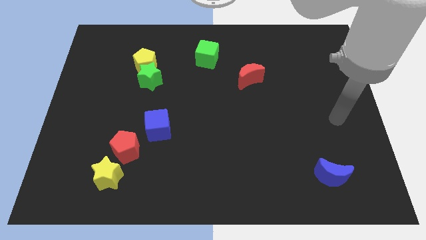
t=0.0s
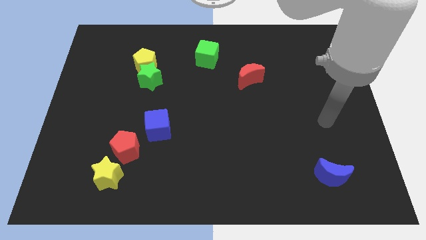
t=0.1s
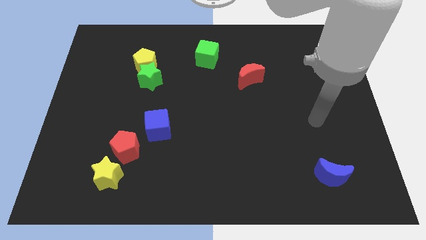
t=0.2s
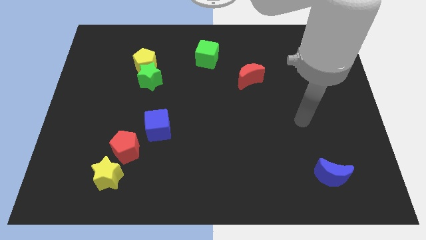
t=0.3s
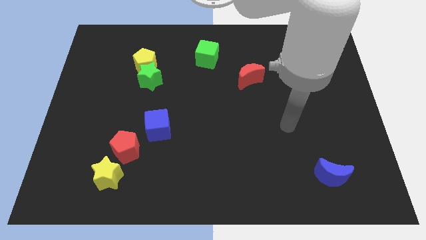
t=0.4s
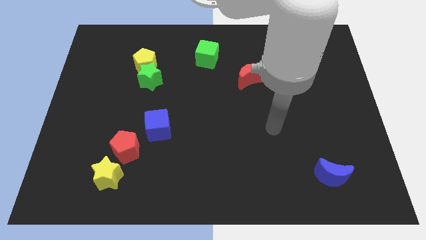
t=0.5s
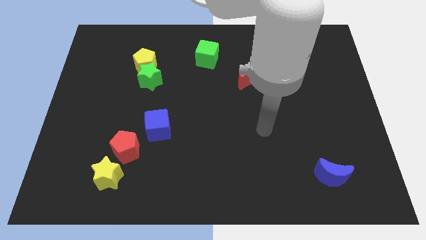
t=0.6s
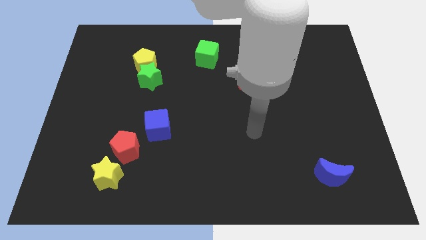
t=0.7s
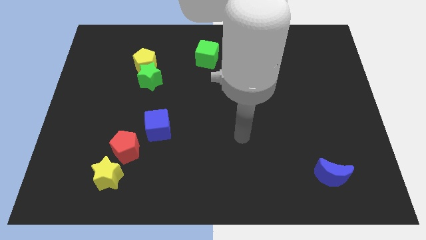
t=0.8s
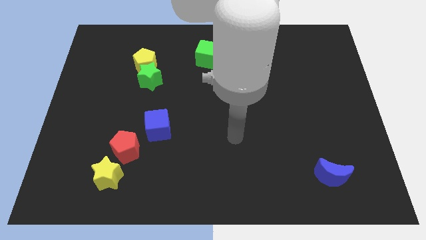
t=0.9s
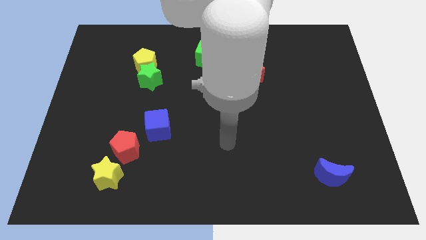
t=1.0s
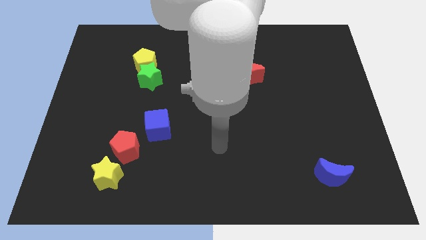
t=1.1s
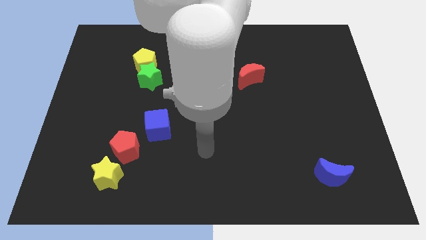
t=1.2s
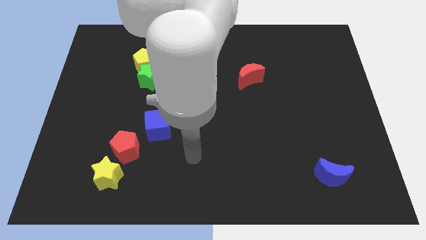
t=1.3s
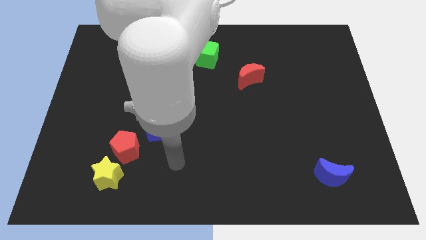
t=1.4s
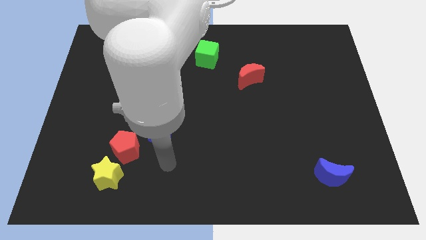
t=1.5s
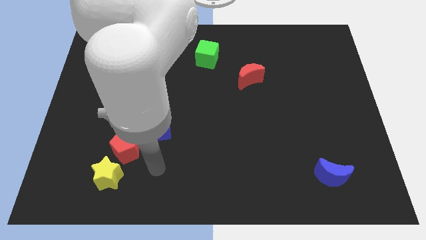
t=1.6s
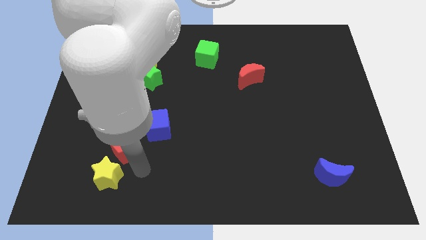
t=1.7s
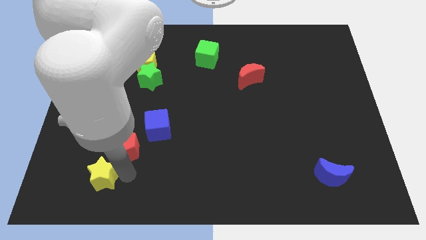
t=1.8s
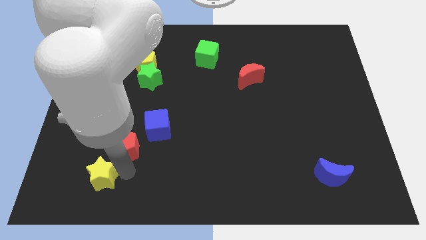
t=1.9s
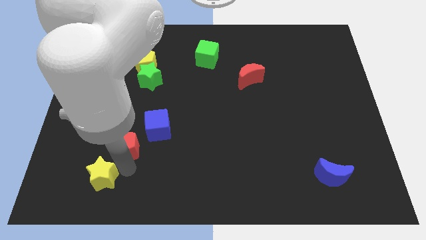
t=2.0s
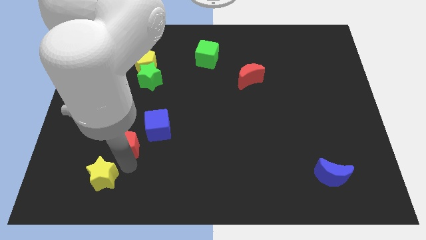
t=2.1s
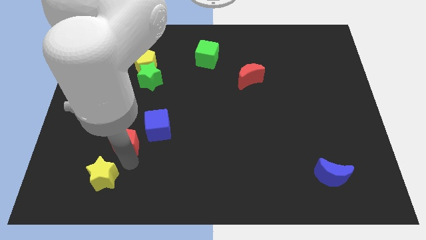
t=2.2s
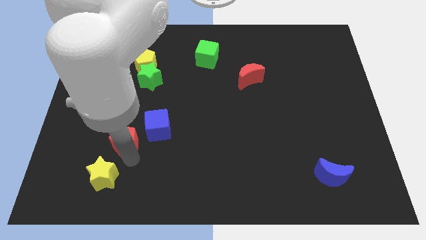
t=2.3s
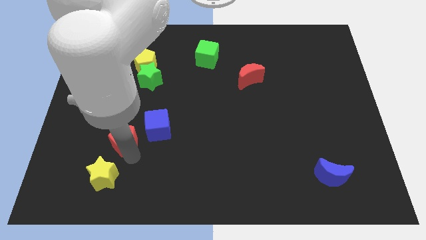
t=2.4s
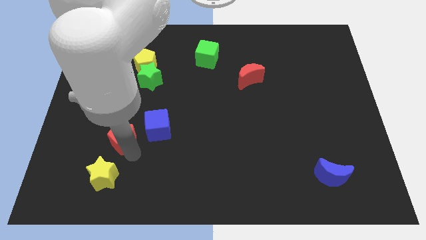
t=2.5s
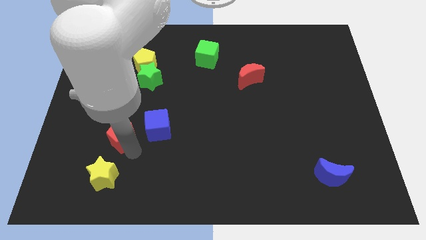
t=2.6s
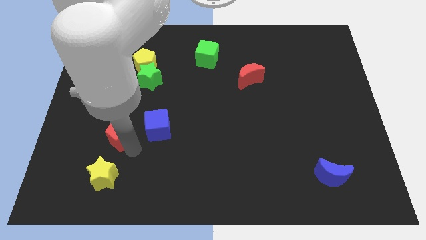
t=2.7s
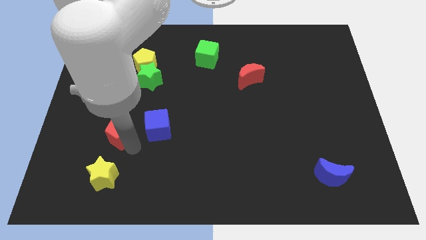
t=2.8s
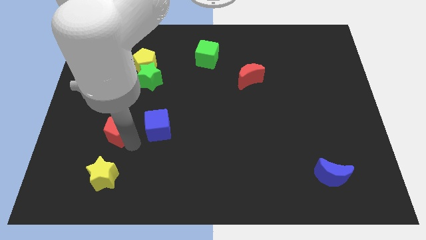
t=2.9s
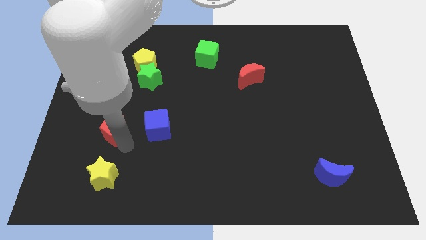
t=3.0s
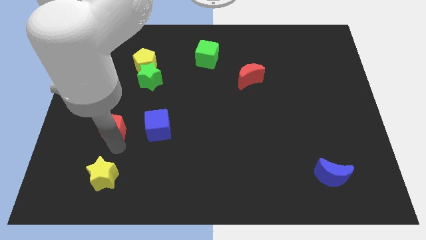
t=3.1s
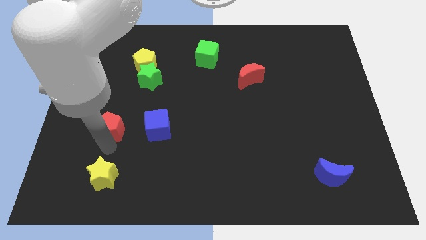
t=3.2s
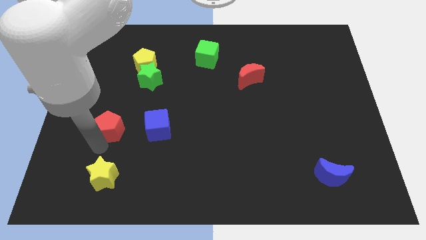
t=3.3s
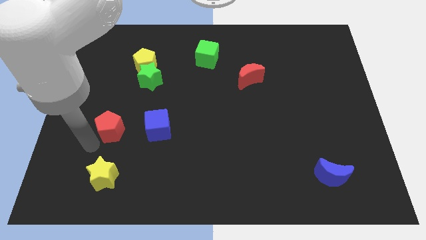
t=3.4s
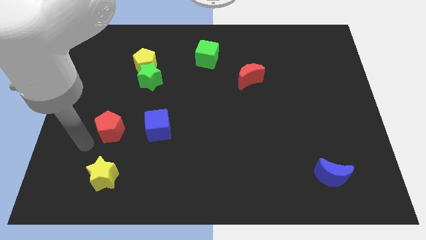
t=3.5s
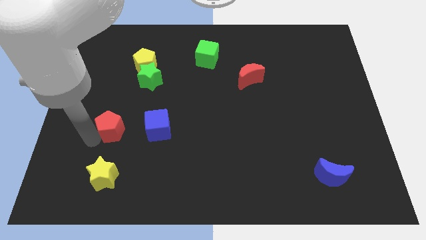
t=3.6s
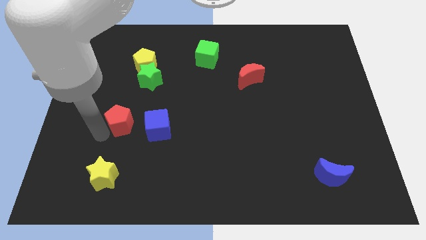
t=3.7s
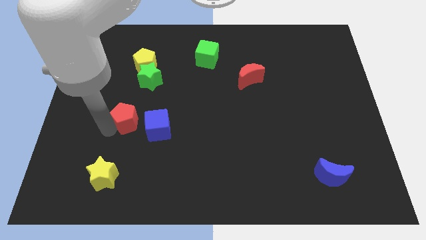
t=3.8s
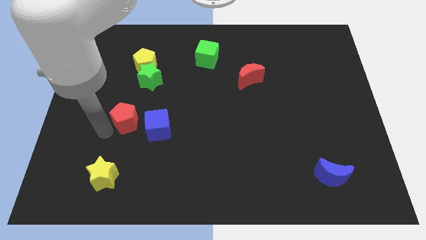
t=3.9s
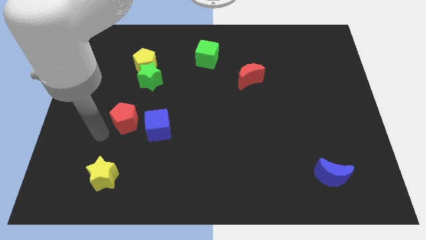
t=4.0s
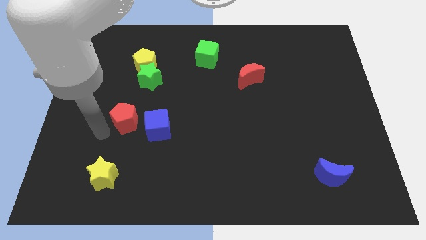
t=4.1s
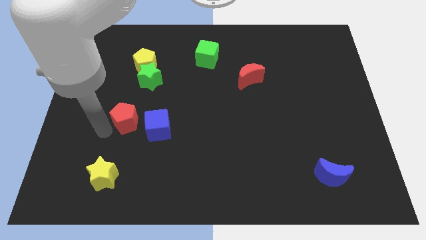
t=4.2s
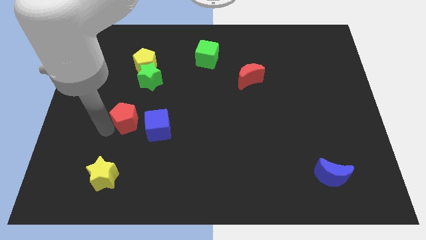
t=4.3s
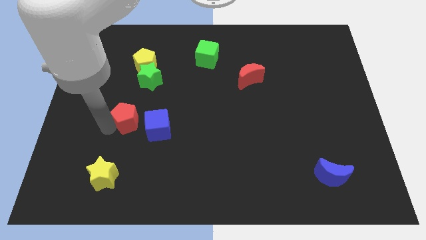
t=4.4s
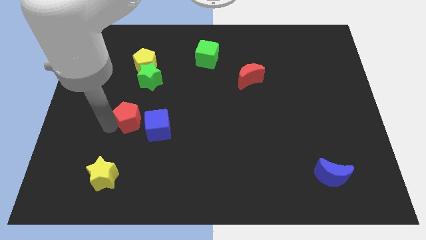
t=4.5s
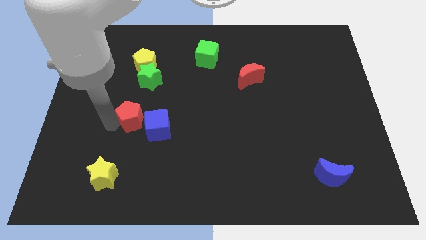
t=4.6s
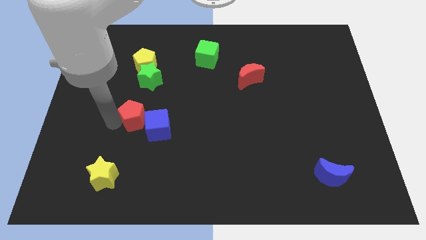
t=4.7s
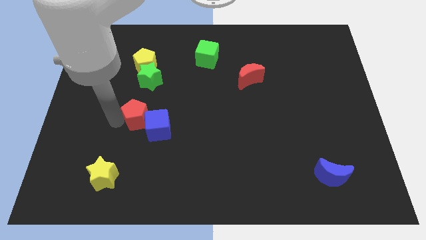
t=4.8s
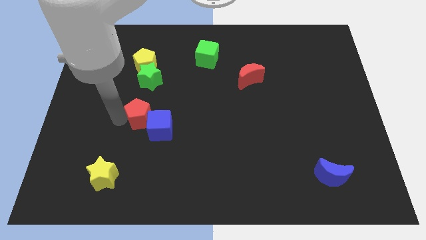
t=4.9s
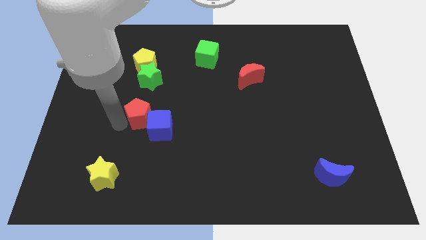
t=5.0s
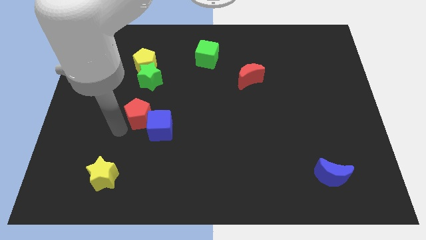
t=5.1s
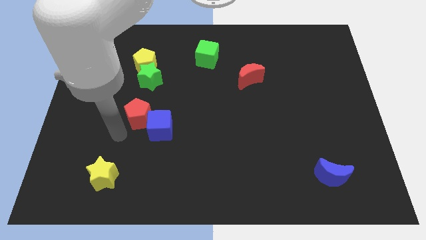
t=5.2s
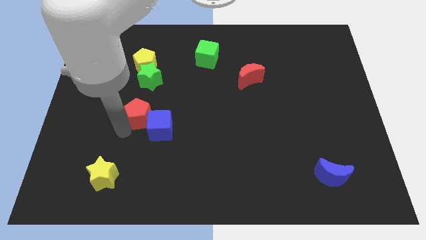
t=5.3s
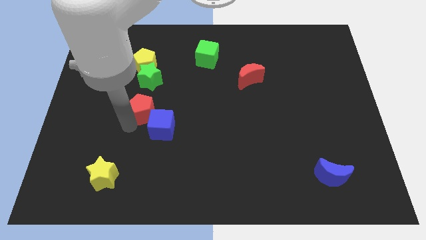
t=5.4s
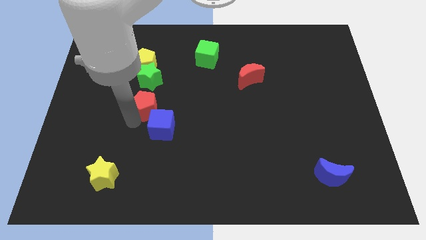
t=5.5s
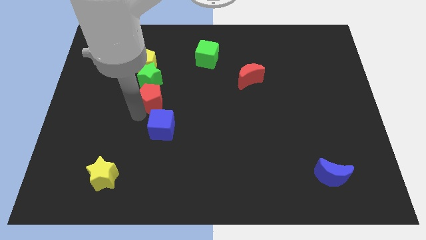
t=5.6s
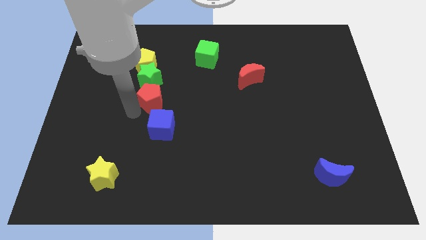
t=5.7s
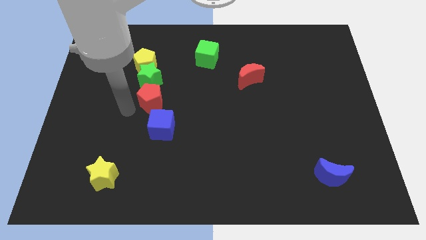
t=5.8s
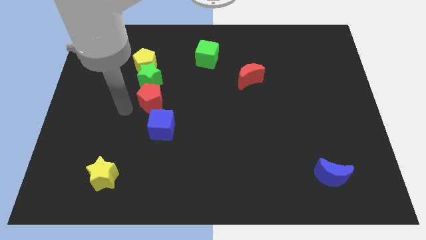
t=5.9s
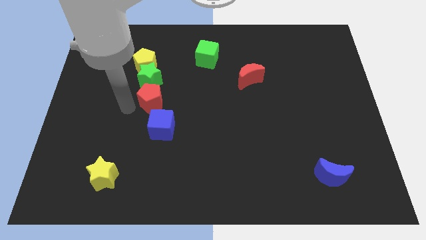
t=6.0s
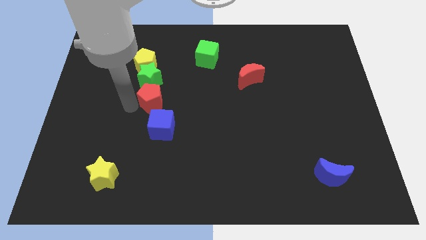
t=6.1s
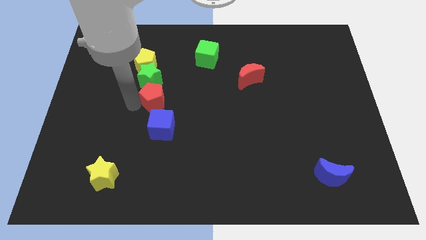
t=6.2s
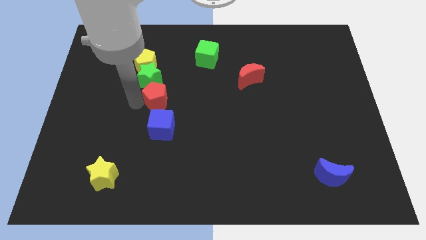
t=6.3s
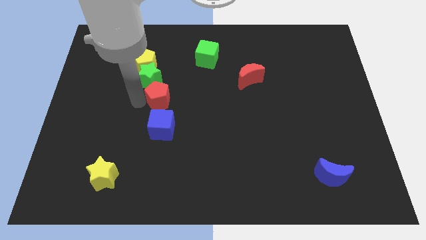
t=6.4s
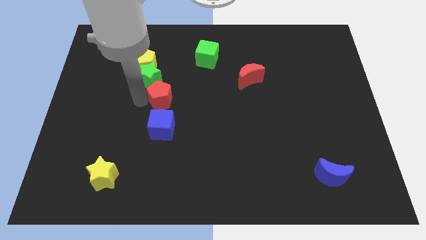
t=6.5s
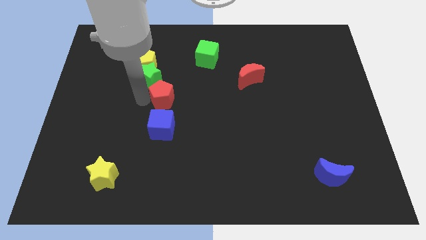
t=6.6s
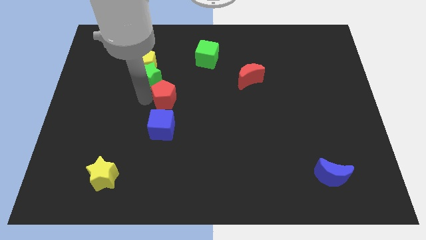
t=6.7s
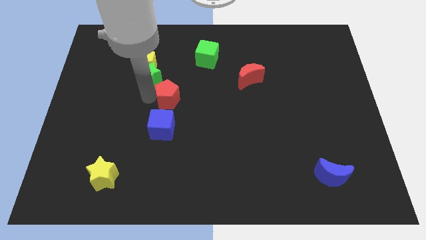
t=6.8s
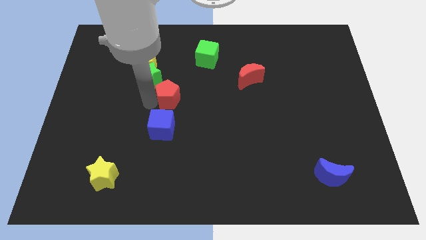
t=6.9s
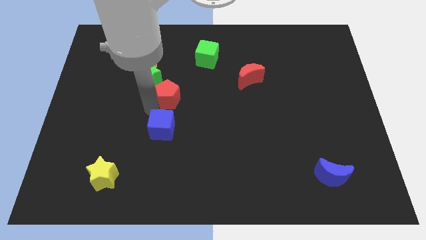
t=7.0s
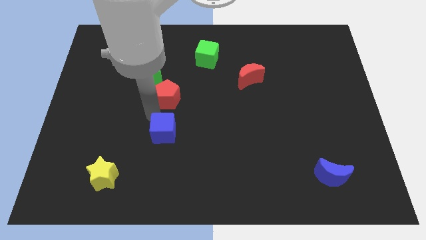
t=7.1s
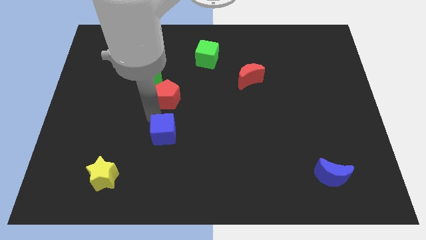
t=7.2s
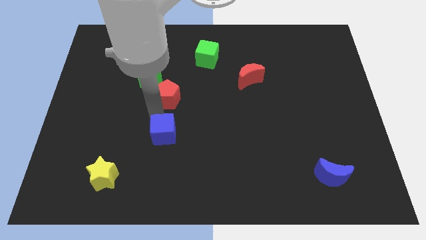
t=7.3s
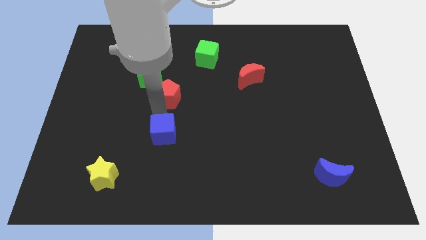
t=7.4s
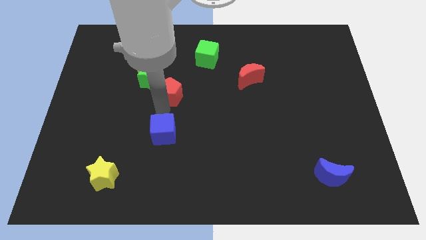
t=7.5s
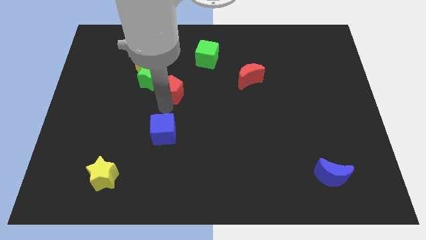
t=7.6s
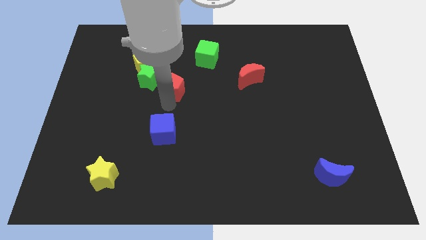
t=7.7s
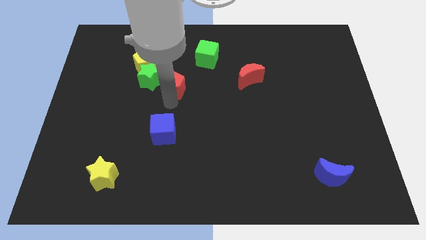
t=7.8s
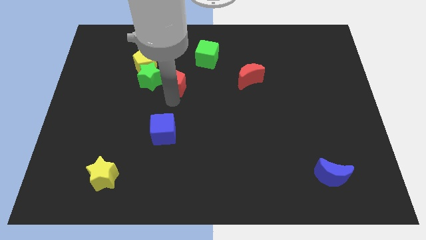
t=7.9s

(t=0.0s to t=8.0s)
put the red pentagon to the bottom left side of the green cube
